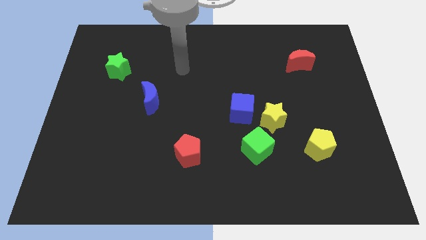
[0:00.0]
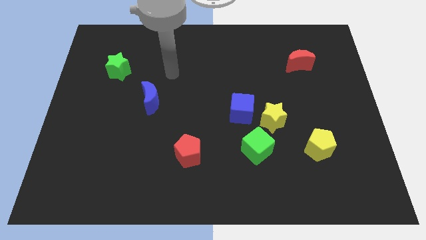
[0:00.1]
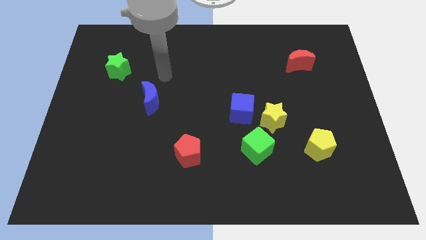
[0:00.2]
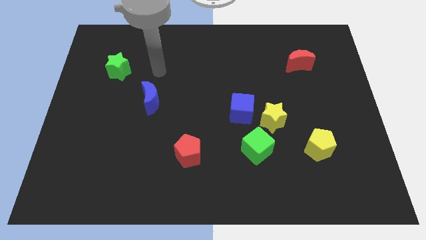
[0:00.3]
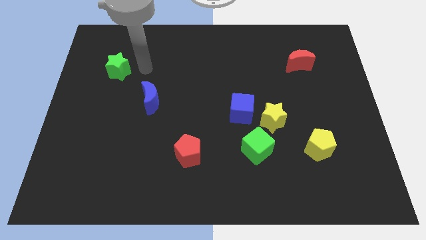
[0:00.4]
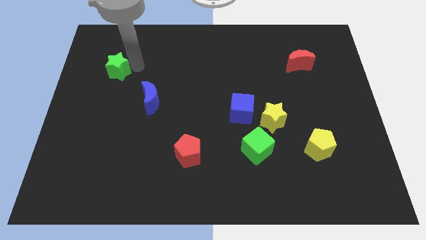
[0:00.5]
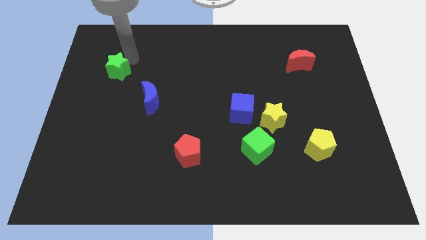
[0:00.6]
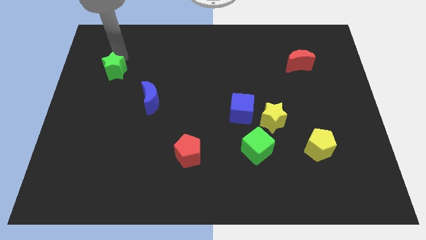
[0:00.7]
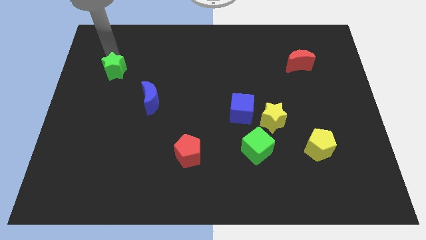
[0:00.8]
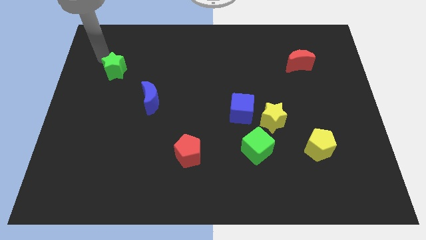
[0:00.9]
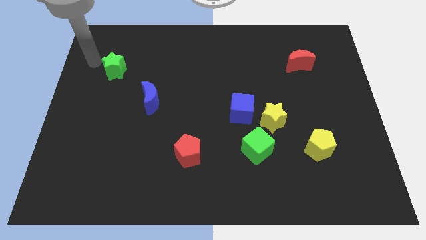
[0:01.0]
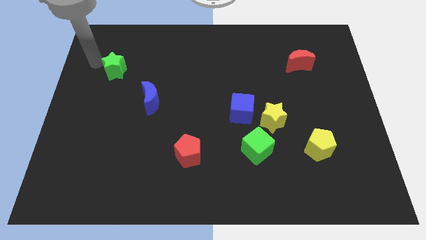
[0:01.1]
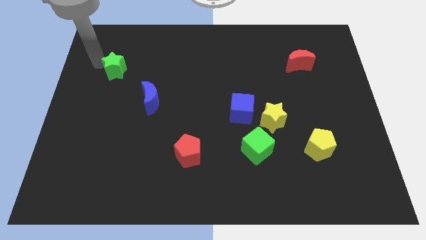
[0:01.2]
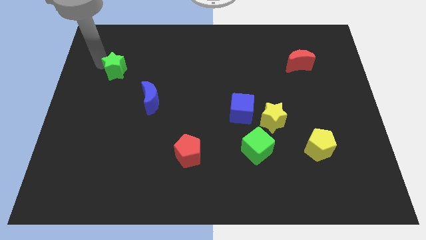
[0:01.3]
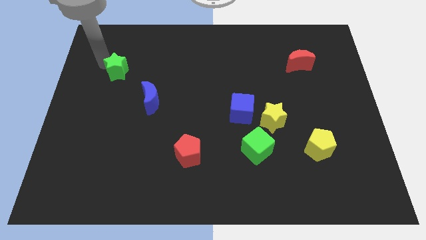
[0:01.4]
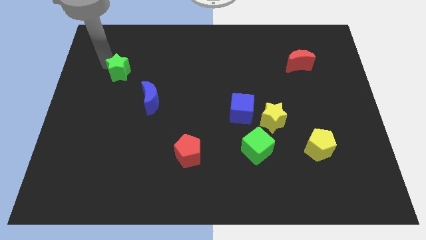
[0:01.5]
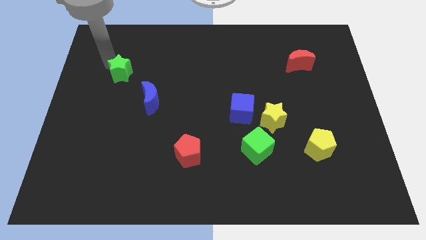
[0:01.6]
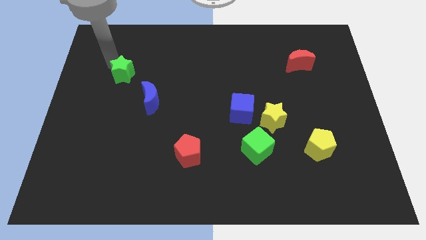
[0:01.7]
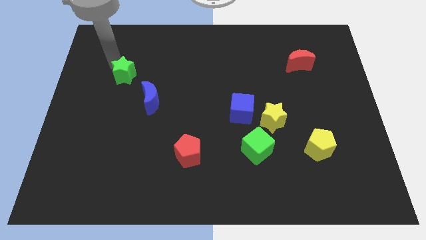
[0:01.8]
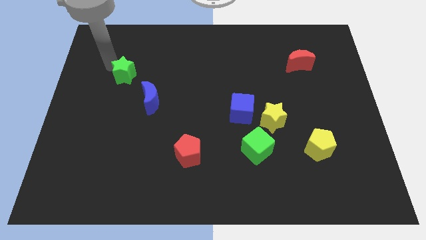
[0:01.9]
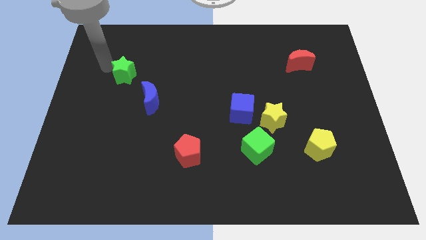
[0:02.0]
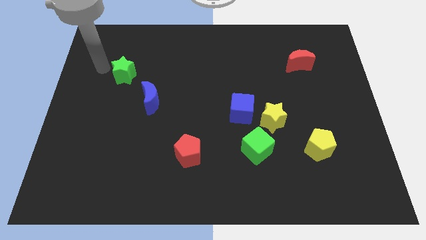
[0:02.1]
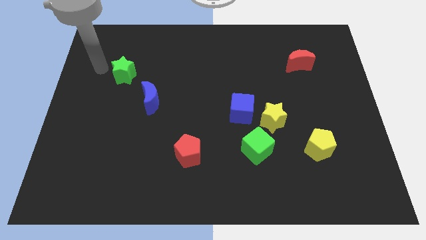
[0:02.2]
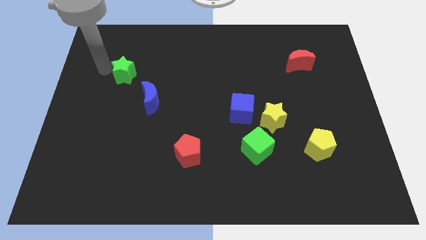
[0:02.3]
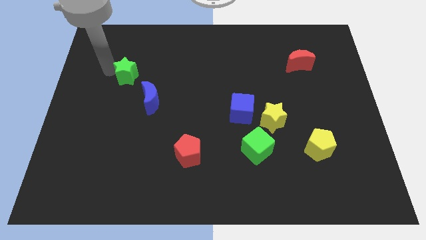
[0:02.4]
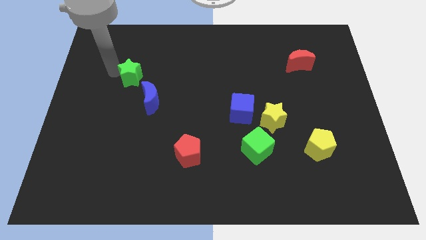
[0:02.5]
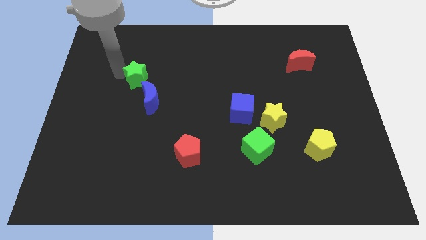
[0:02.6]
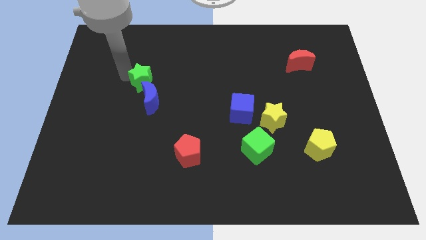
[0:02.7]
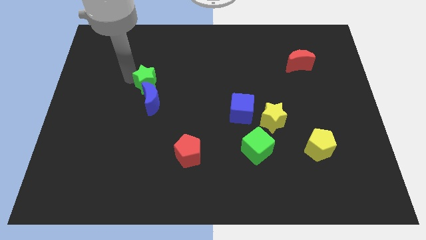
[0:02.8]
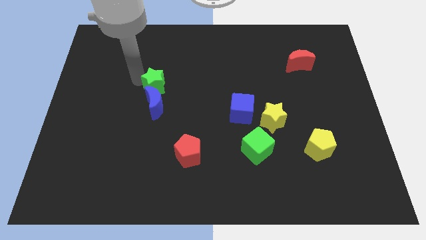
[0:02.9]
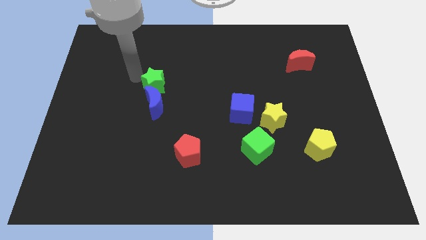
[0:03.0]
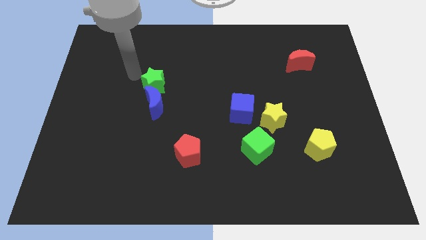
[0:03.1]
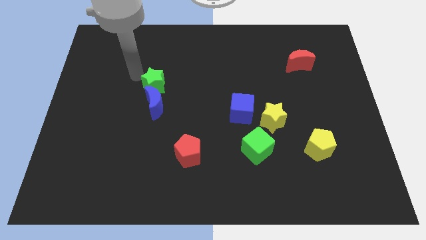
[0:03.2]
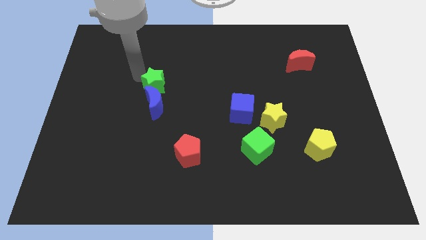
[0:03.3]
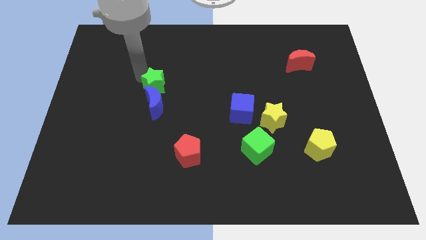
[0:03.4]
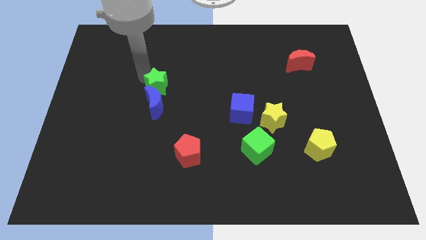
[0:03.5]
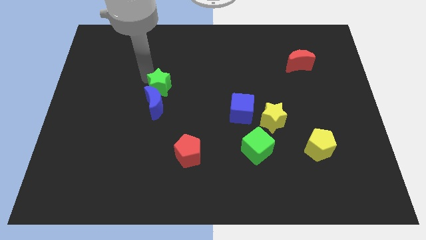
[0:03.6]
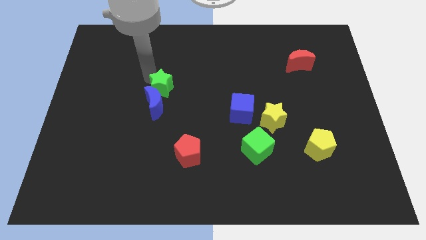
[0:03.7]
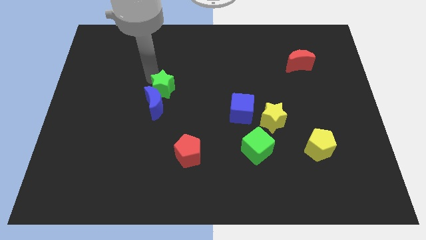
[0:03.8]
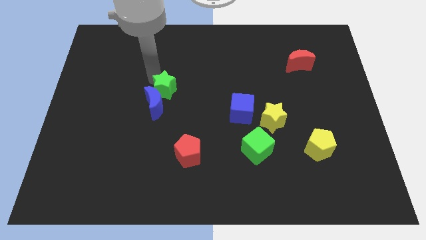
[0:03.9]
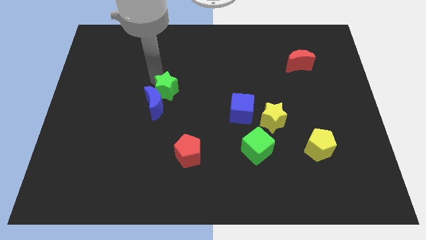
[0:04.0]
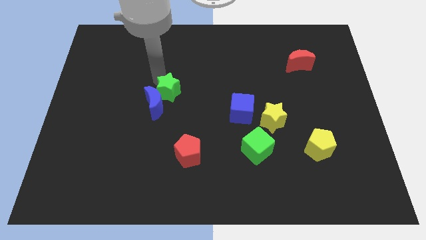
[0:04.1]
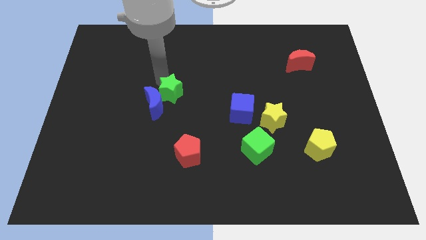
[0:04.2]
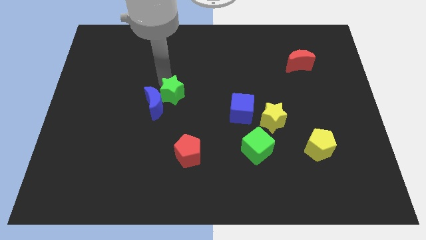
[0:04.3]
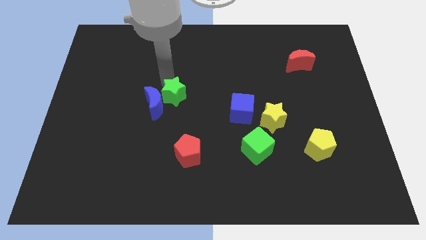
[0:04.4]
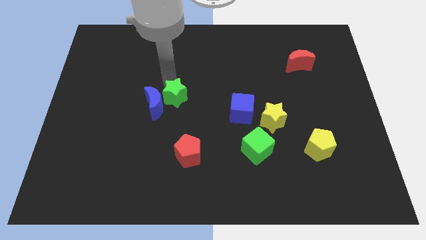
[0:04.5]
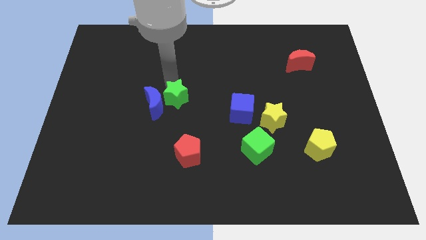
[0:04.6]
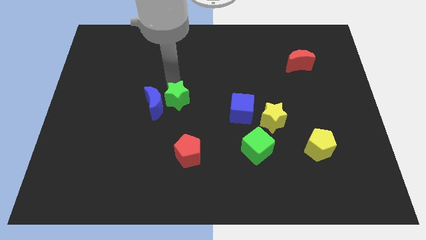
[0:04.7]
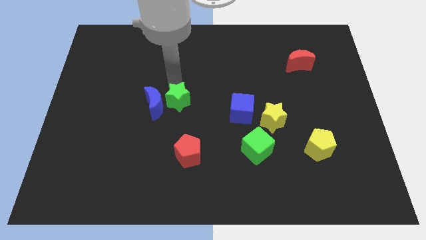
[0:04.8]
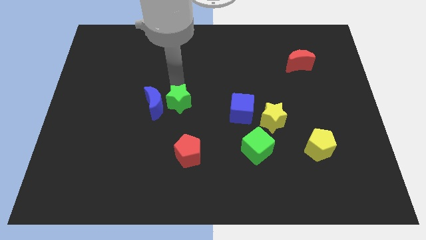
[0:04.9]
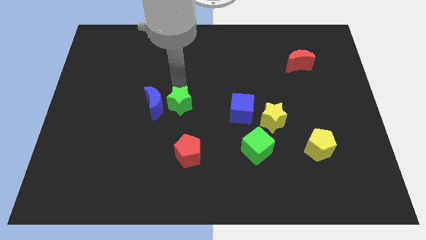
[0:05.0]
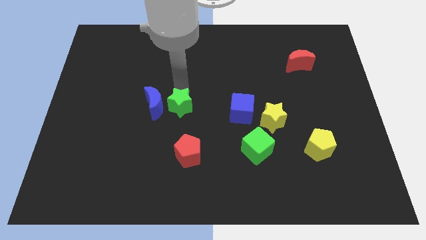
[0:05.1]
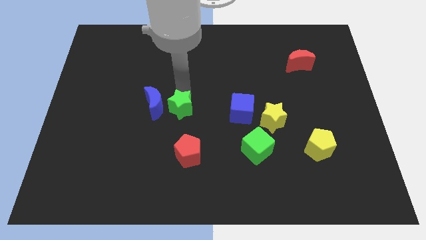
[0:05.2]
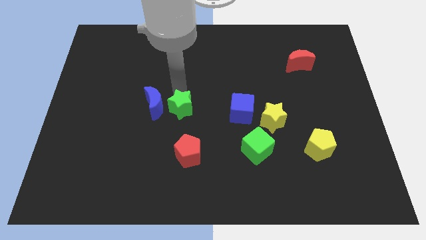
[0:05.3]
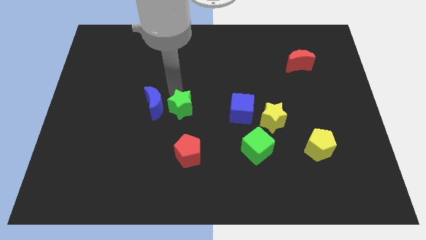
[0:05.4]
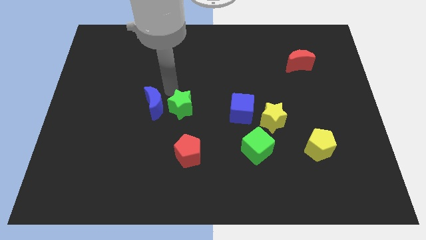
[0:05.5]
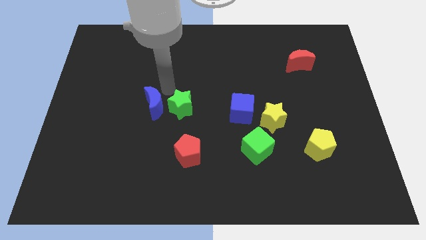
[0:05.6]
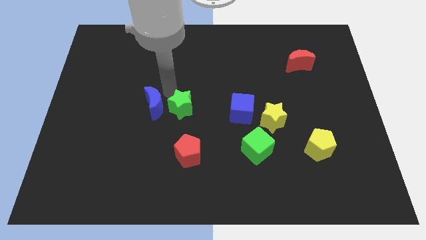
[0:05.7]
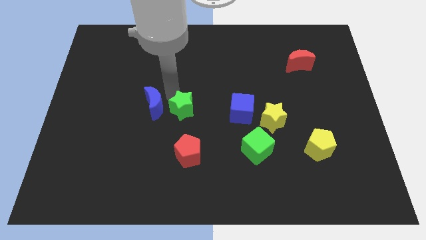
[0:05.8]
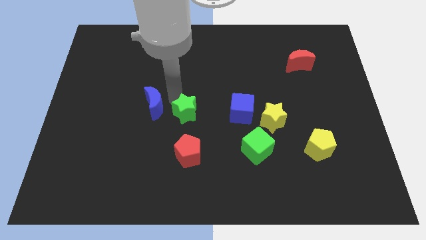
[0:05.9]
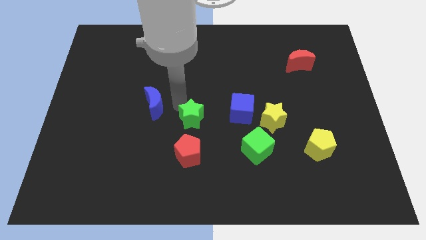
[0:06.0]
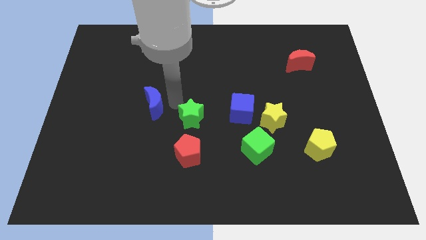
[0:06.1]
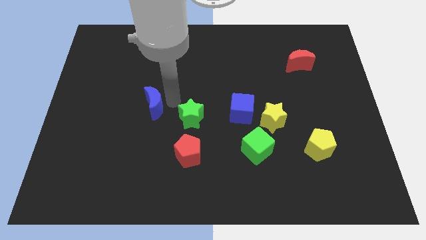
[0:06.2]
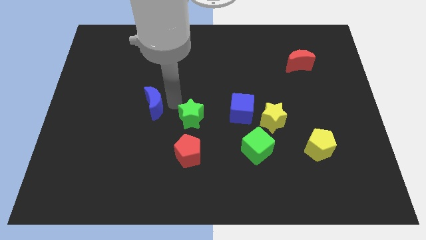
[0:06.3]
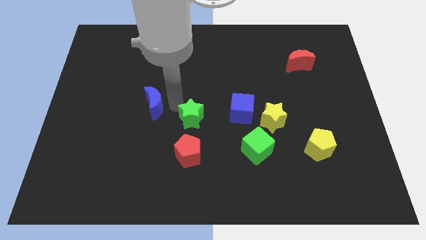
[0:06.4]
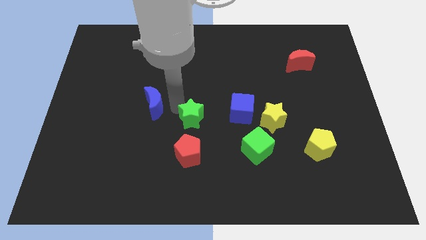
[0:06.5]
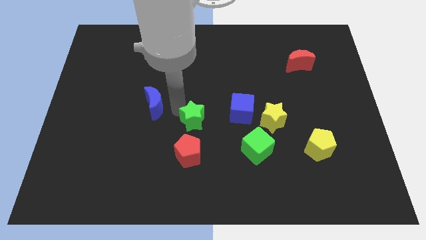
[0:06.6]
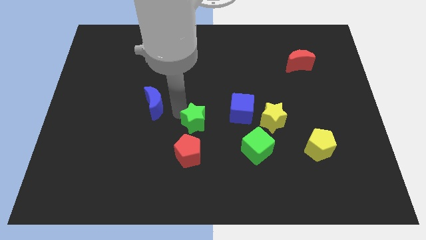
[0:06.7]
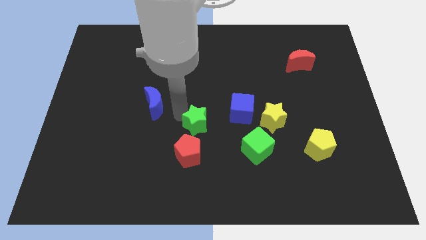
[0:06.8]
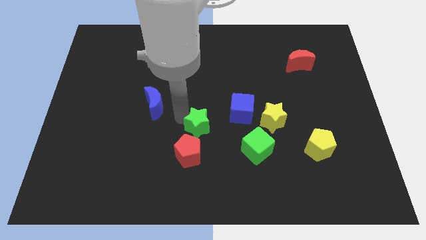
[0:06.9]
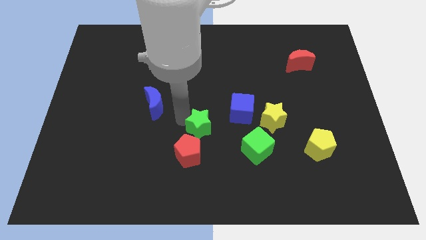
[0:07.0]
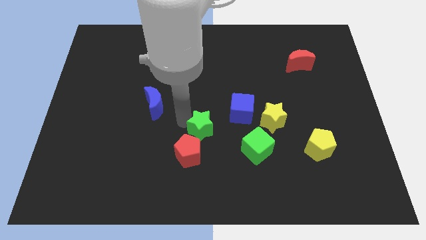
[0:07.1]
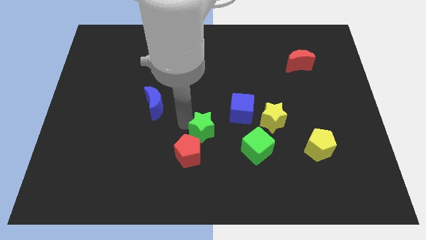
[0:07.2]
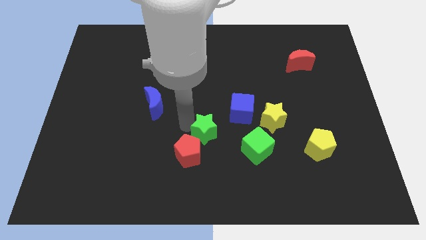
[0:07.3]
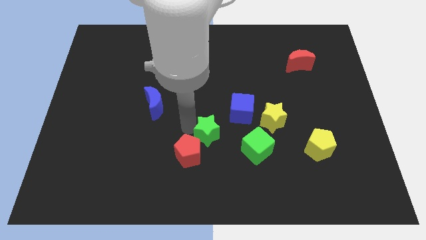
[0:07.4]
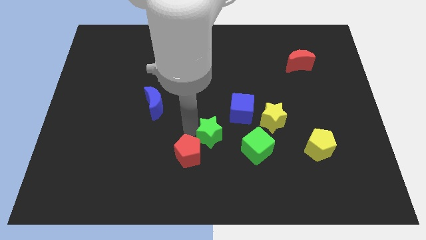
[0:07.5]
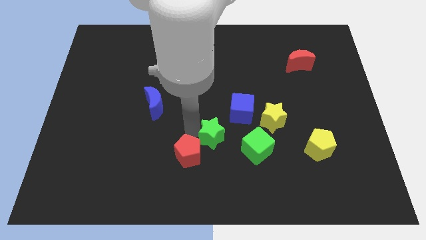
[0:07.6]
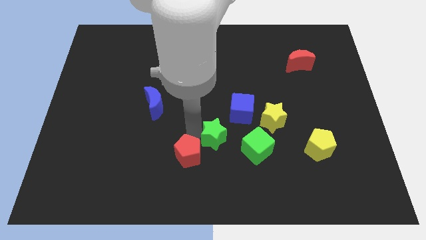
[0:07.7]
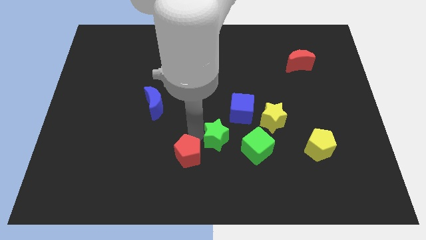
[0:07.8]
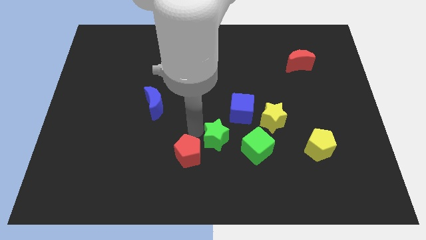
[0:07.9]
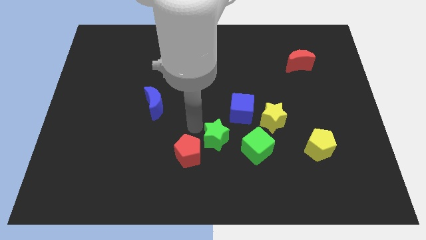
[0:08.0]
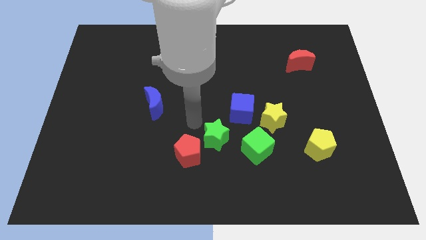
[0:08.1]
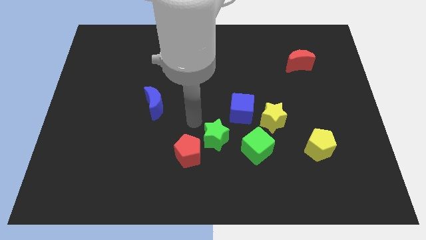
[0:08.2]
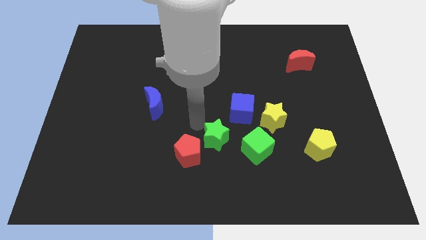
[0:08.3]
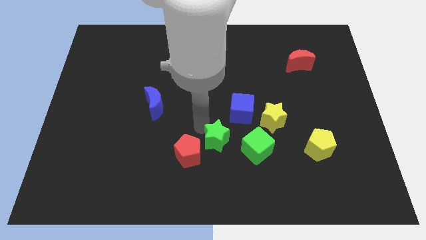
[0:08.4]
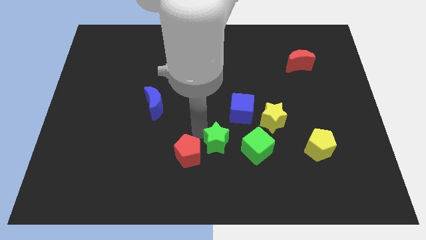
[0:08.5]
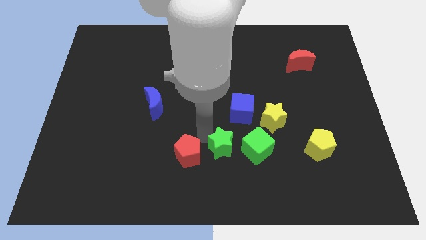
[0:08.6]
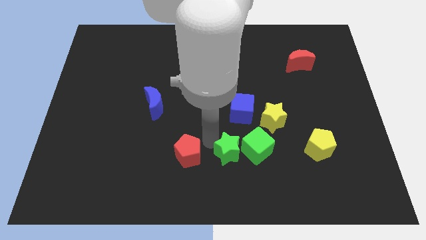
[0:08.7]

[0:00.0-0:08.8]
slide the green star to the bottom of the blue cube
